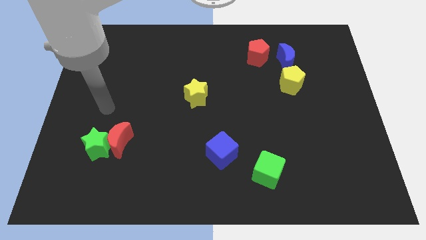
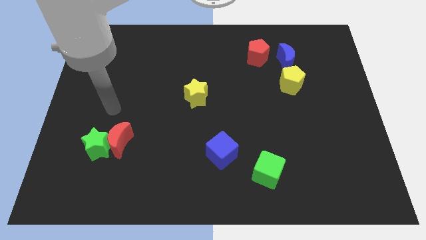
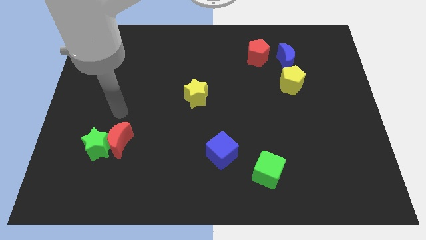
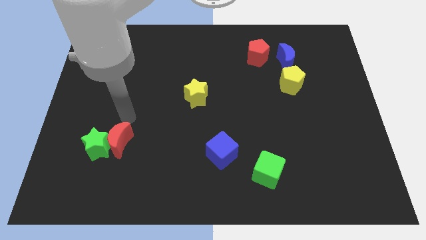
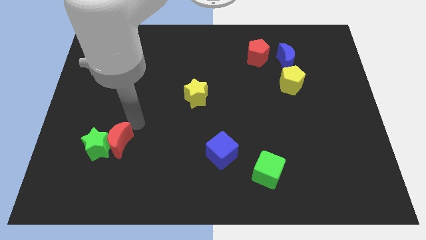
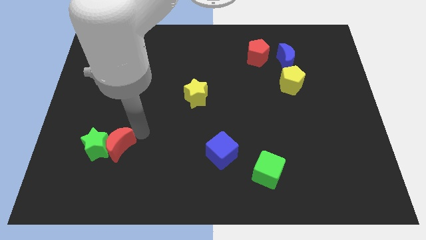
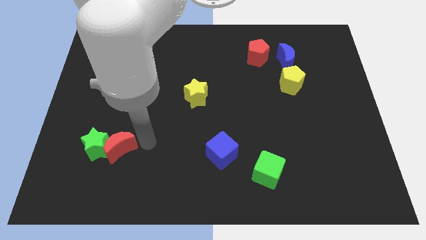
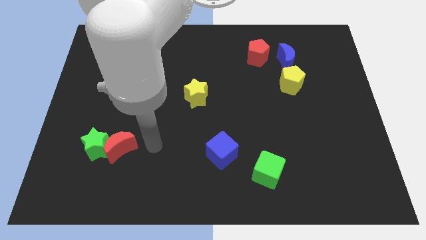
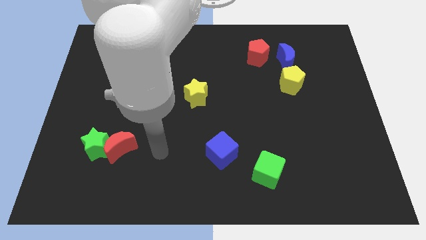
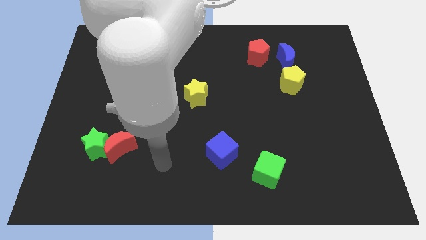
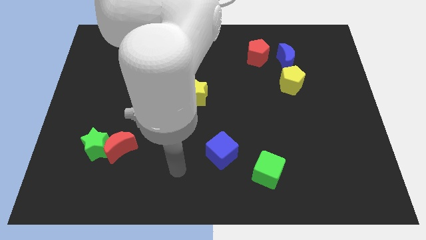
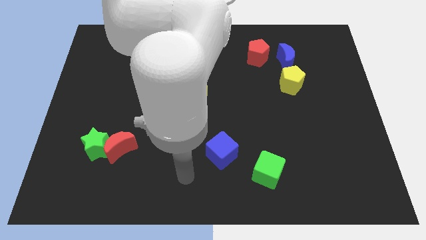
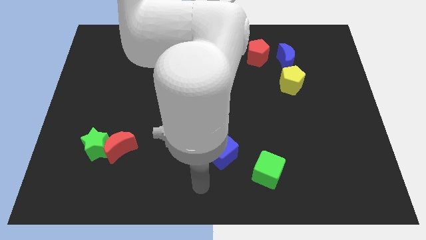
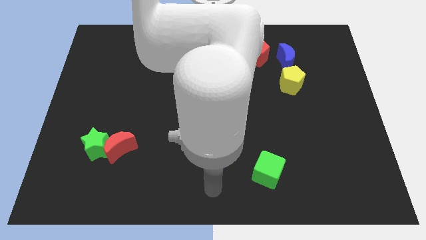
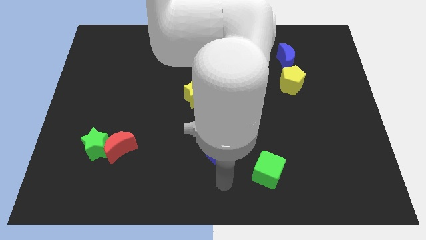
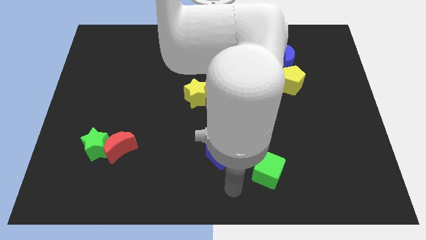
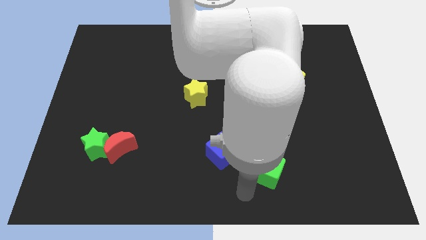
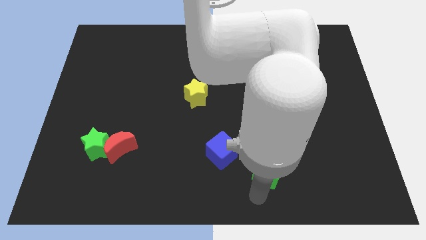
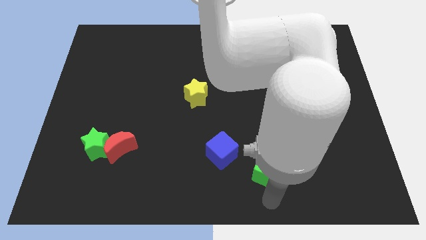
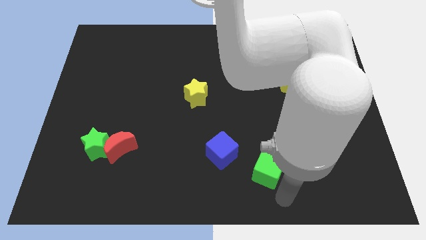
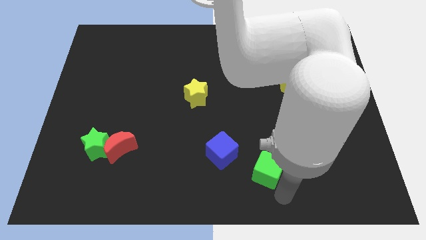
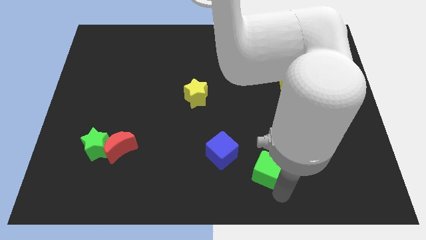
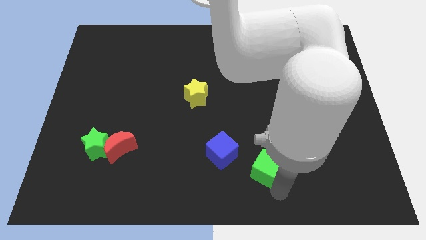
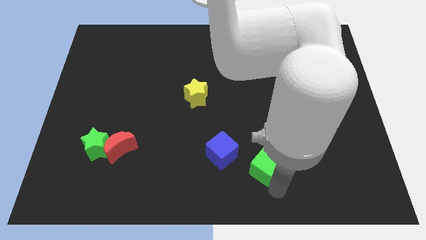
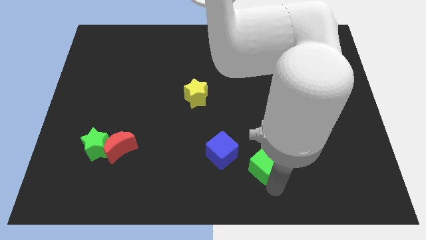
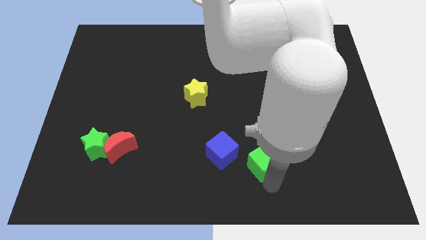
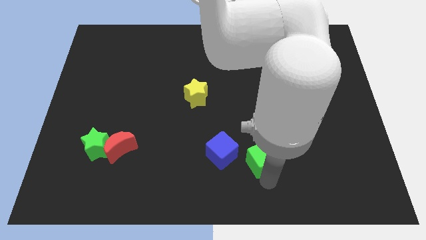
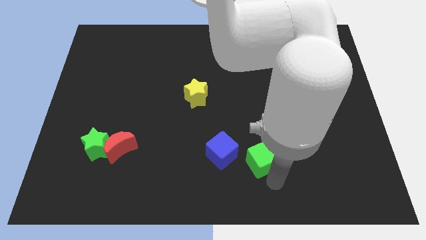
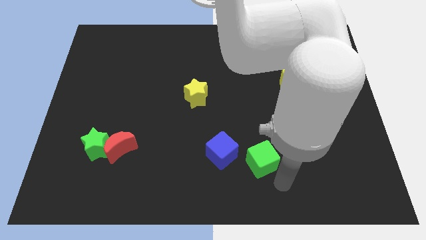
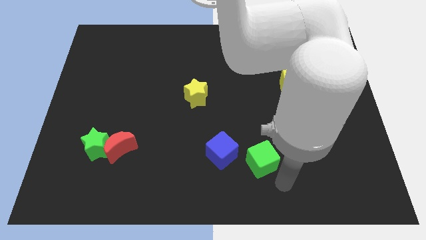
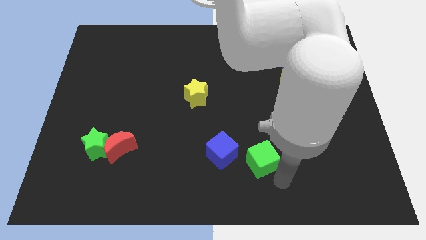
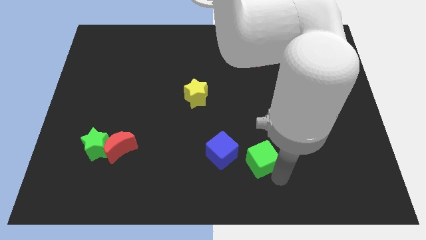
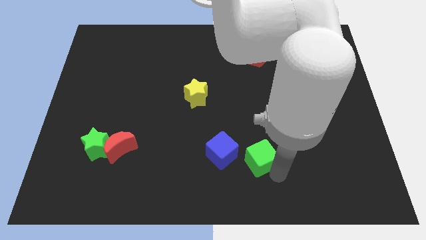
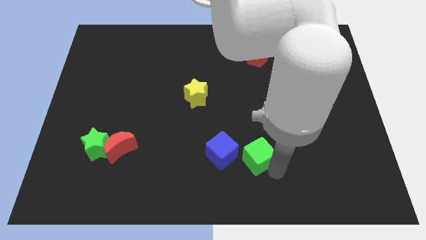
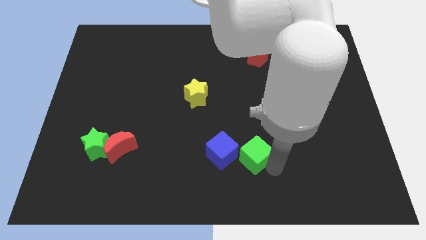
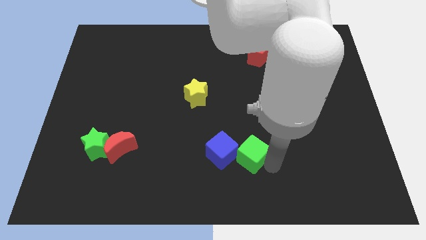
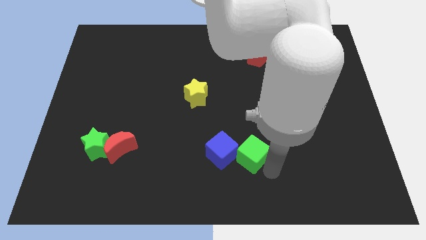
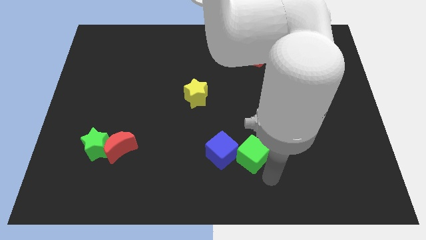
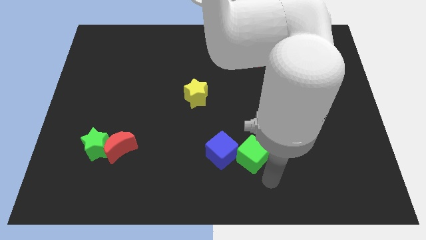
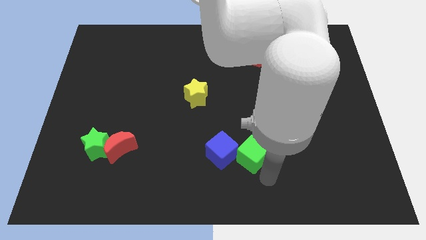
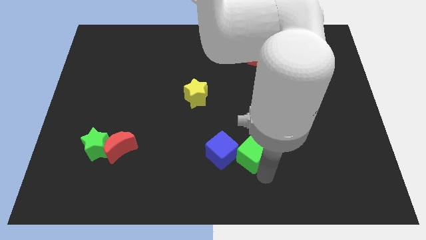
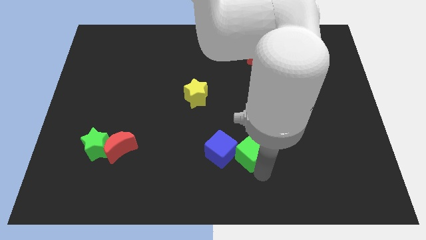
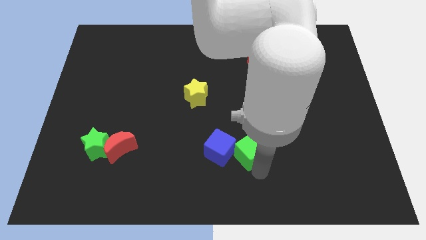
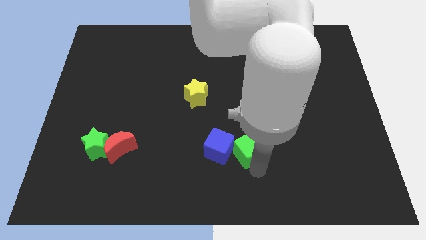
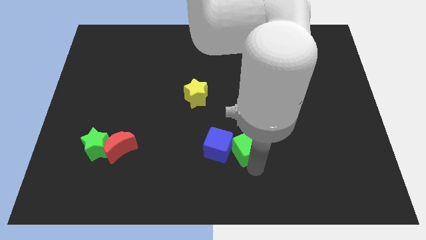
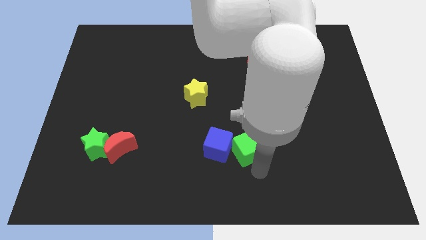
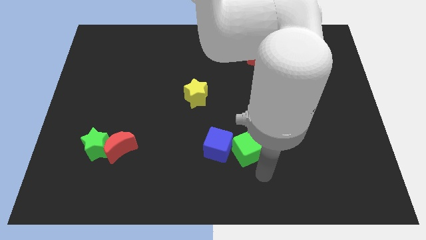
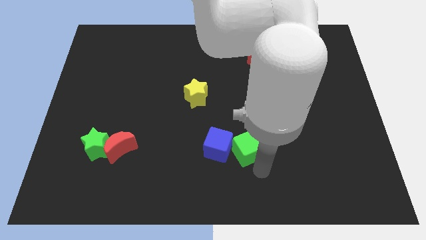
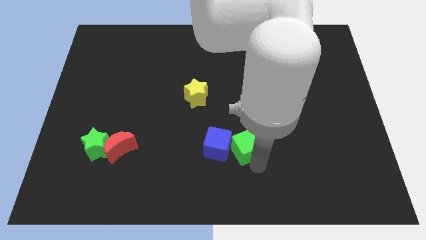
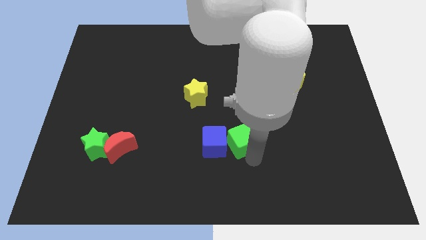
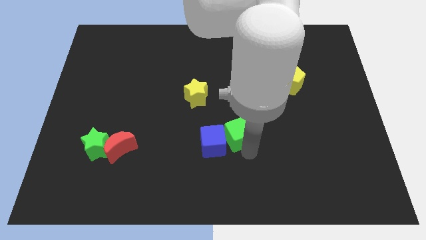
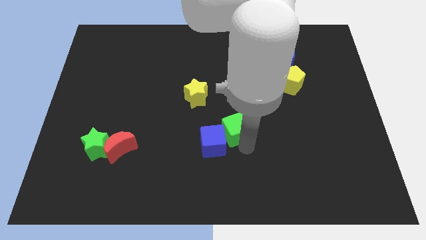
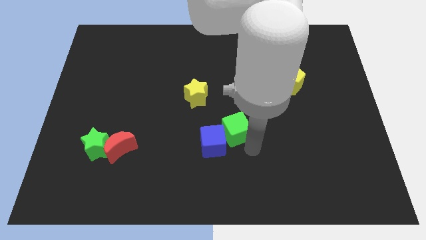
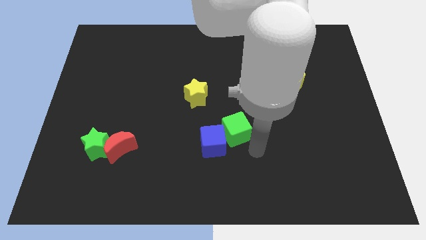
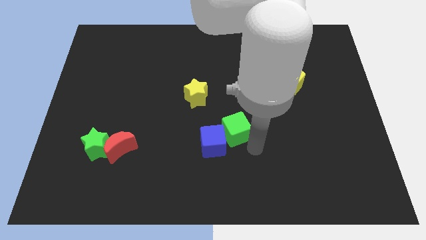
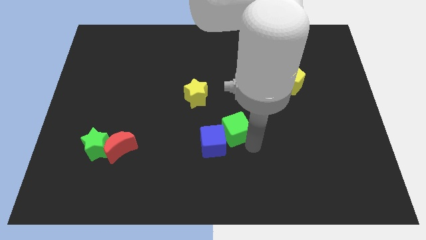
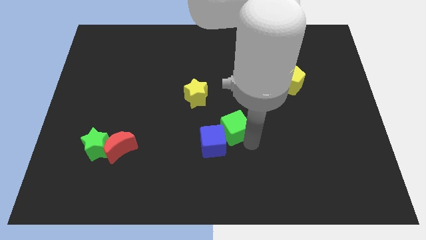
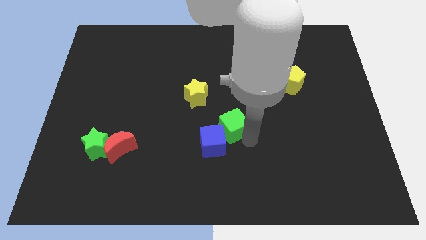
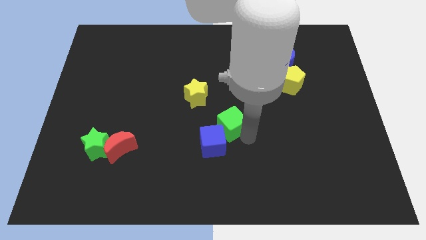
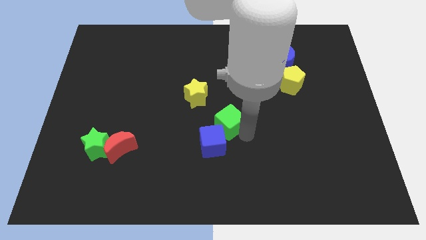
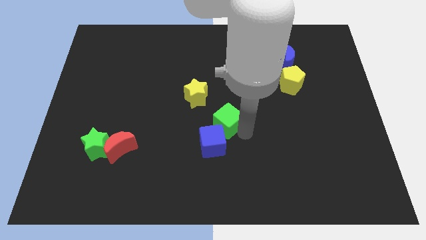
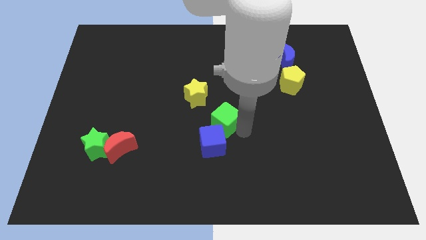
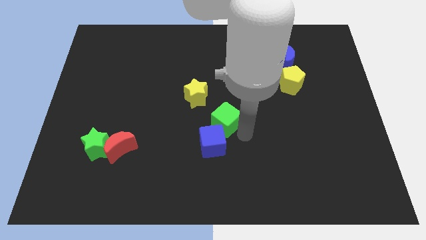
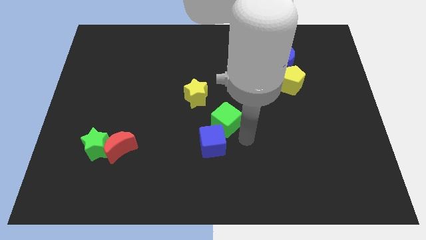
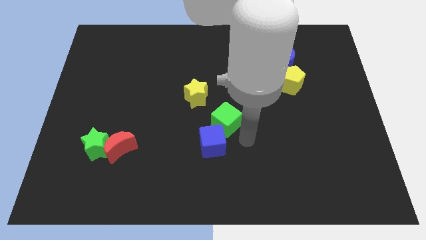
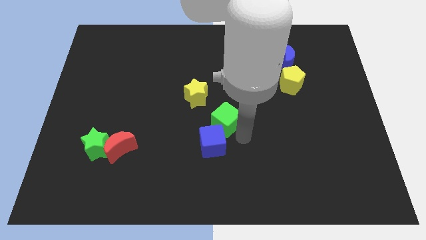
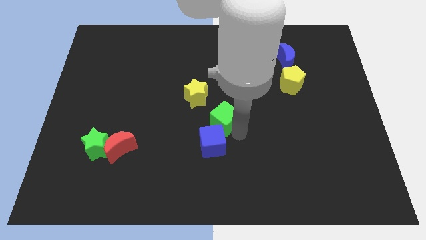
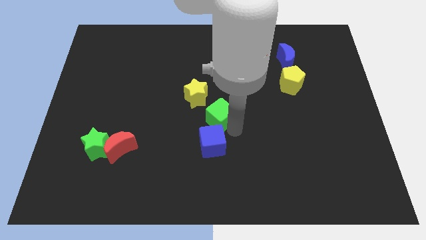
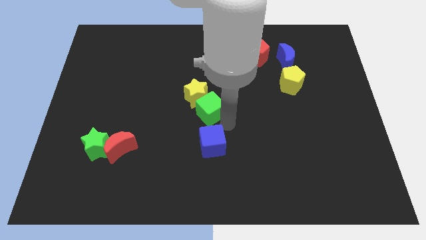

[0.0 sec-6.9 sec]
push the green cube to the yellow star

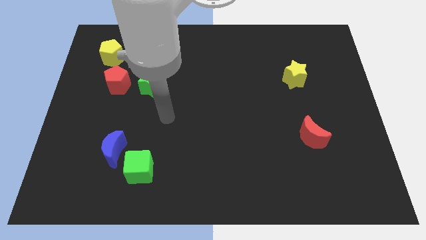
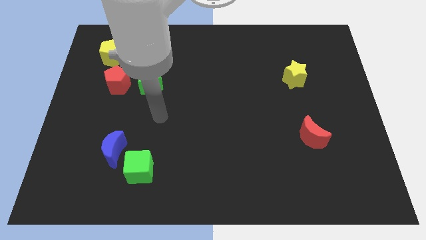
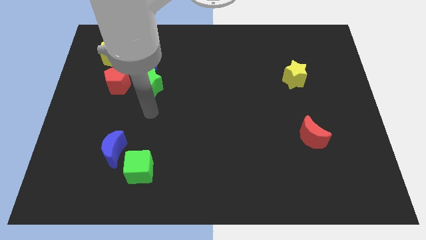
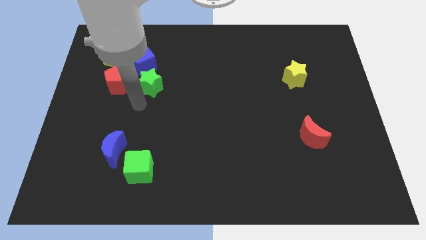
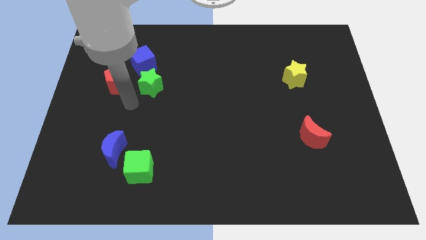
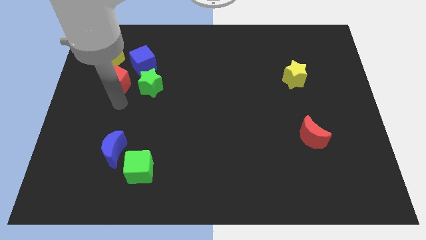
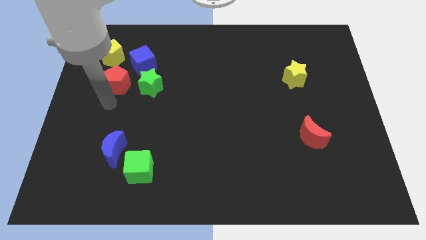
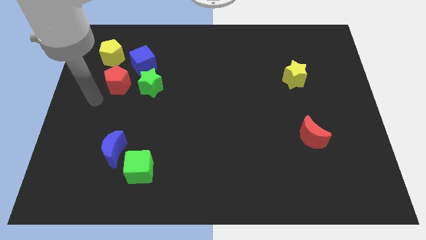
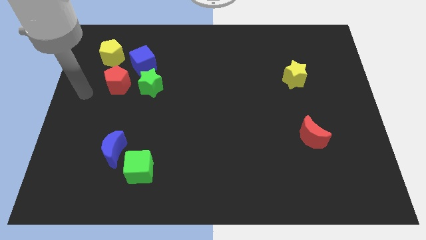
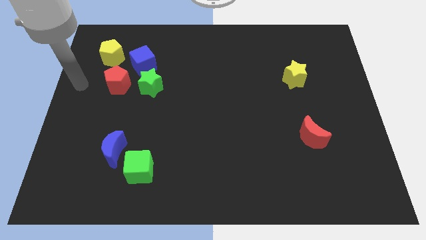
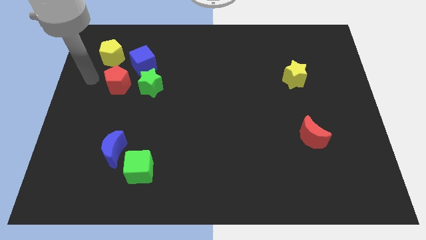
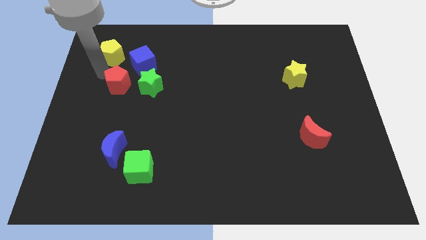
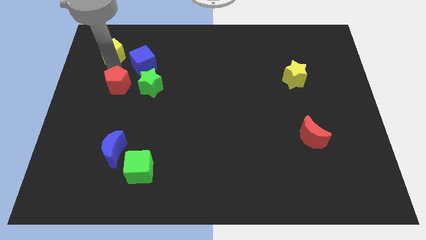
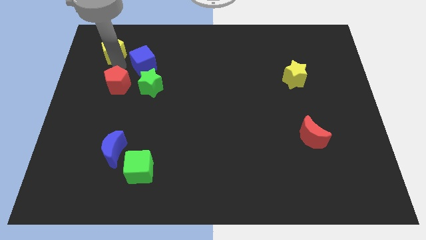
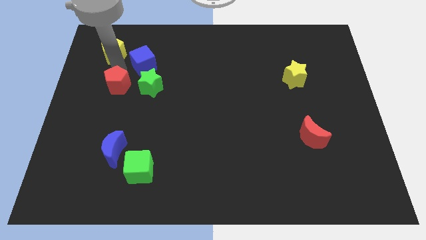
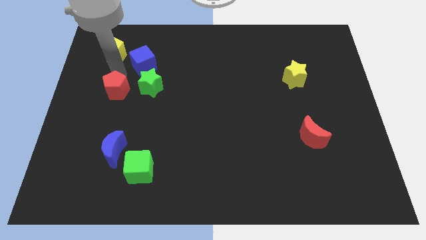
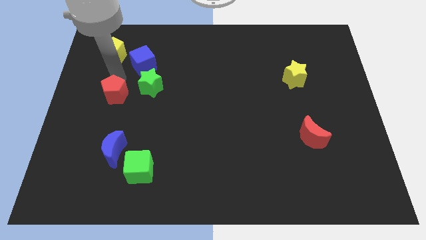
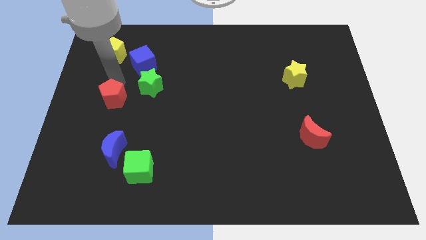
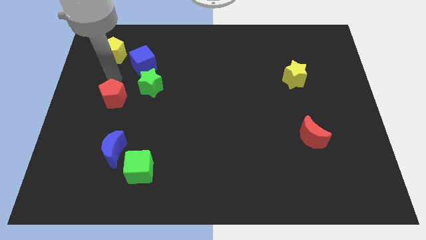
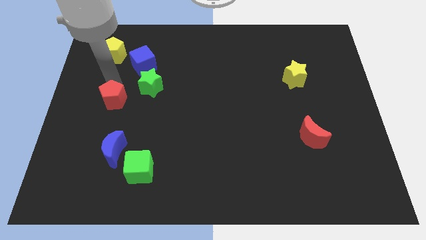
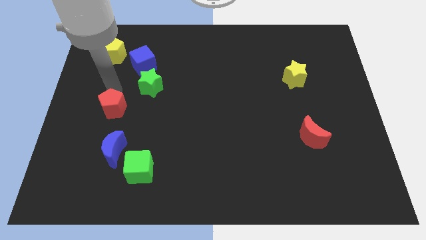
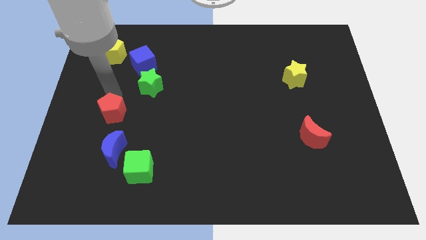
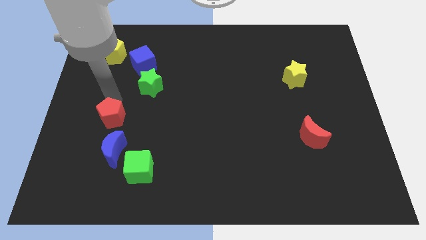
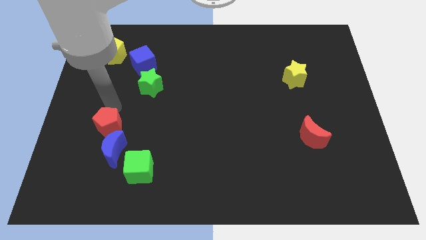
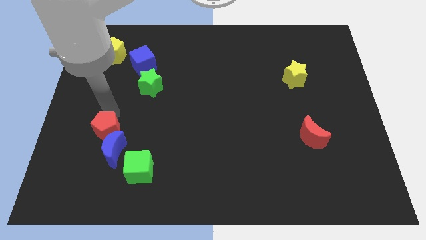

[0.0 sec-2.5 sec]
put the red pentagon towards the blue moon
